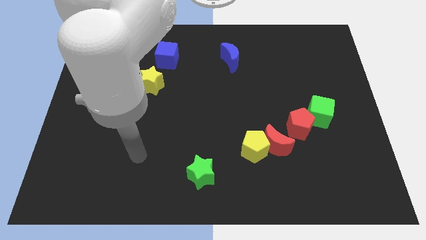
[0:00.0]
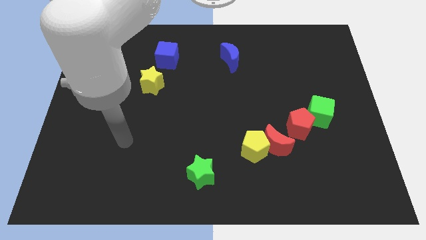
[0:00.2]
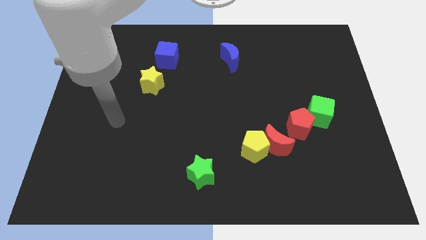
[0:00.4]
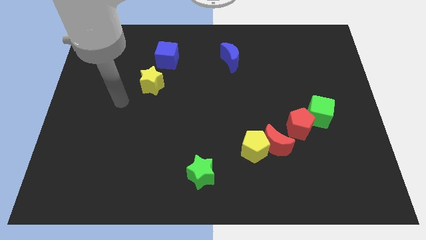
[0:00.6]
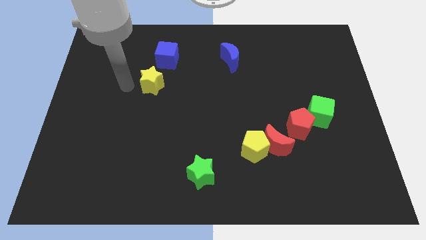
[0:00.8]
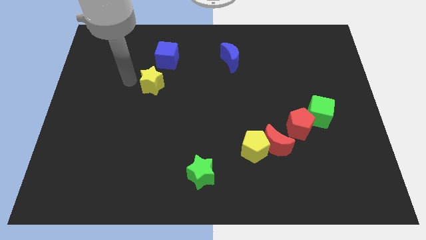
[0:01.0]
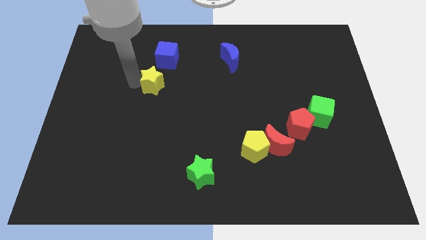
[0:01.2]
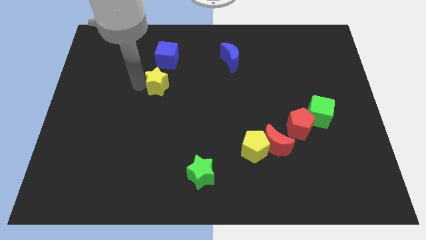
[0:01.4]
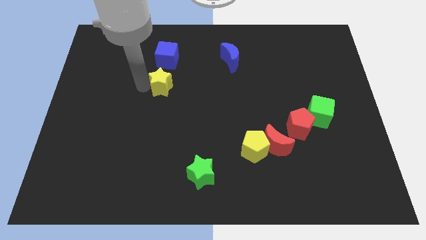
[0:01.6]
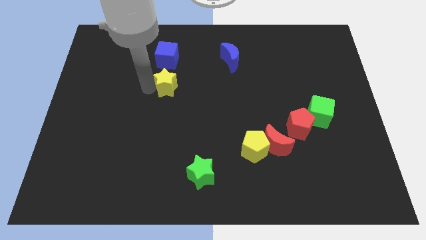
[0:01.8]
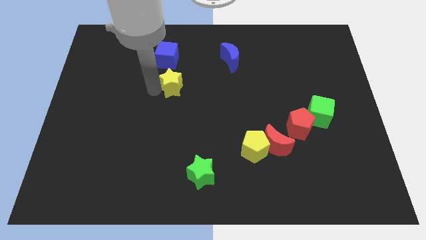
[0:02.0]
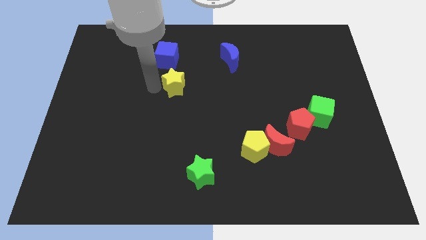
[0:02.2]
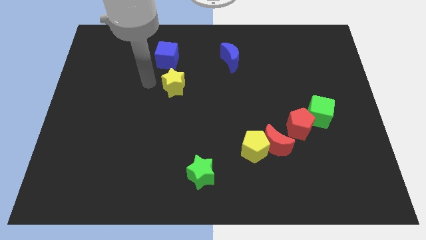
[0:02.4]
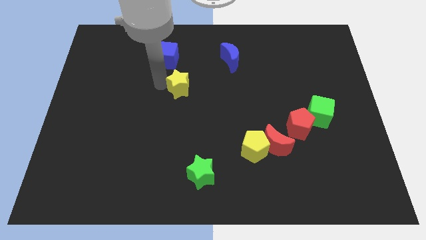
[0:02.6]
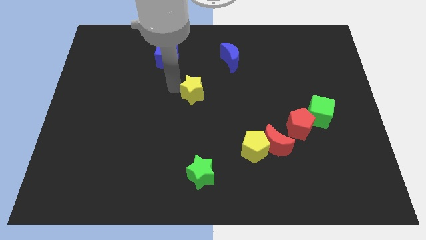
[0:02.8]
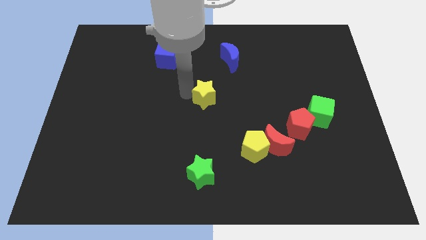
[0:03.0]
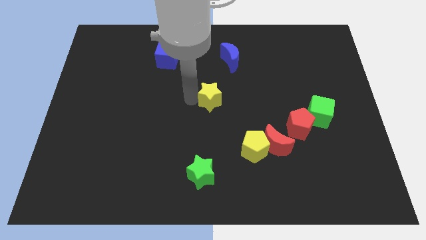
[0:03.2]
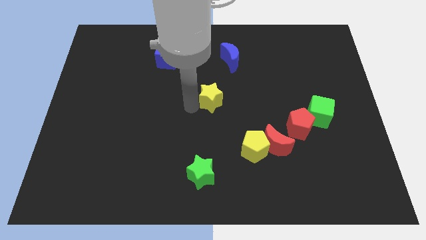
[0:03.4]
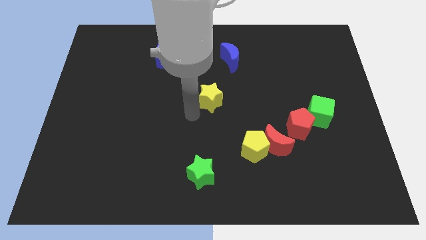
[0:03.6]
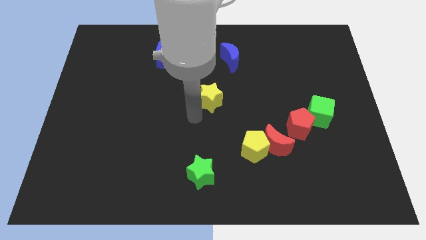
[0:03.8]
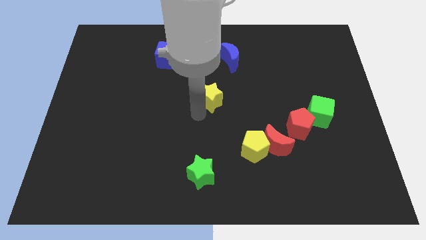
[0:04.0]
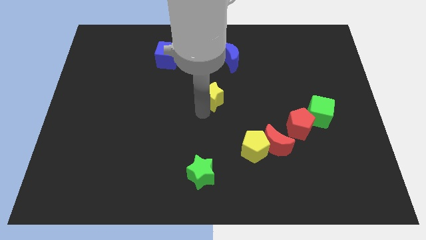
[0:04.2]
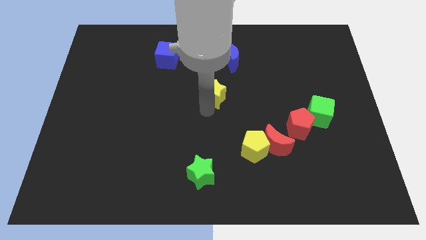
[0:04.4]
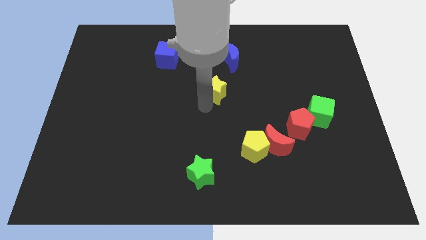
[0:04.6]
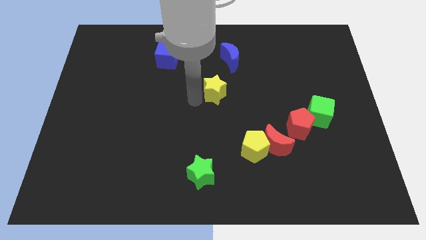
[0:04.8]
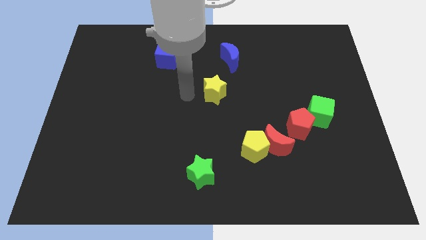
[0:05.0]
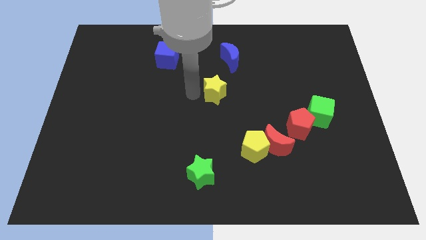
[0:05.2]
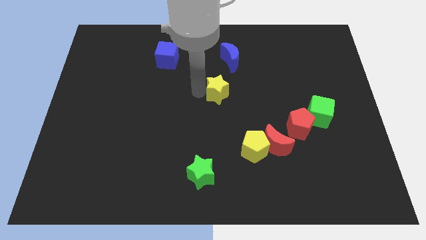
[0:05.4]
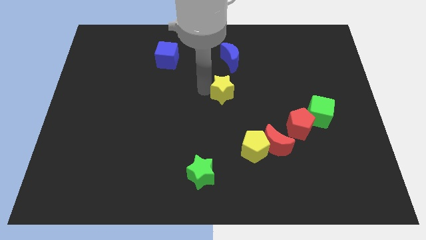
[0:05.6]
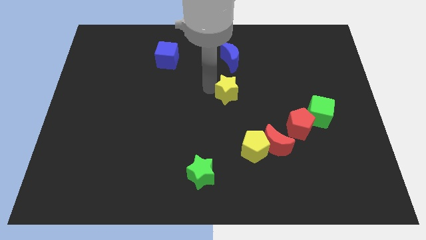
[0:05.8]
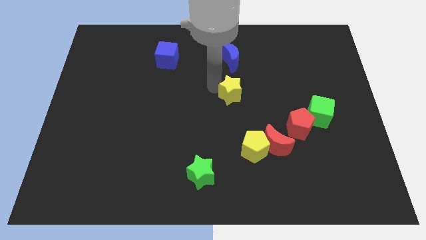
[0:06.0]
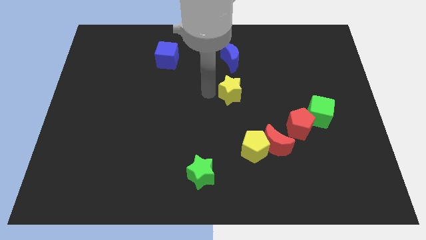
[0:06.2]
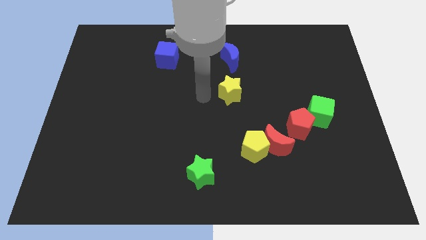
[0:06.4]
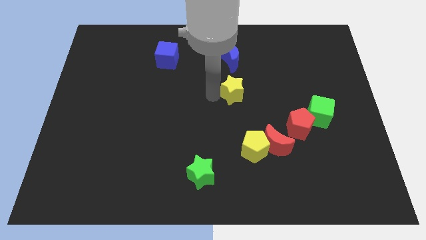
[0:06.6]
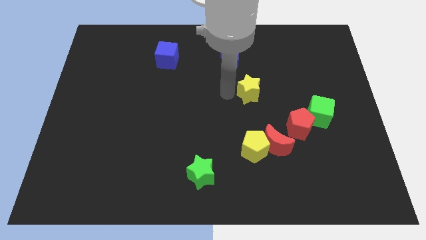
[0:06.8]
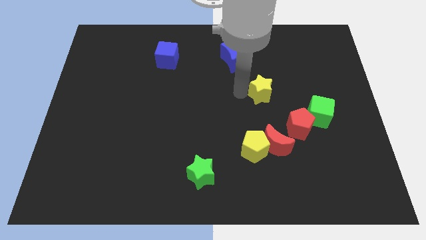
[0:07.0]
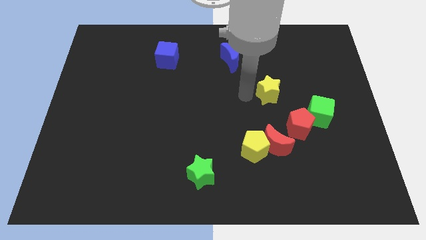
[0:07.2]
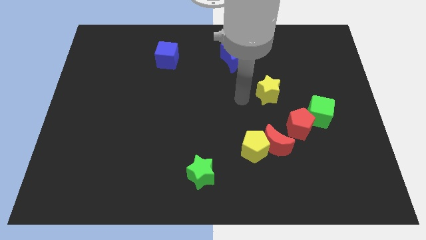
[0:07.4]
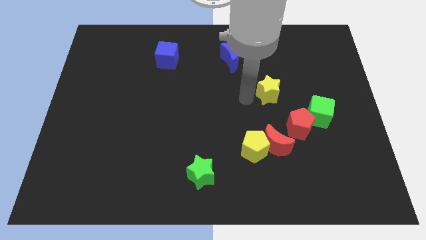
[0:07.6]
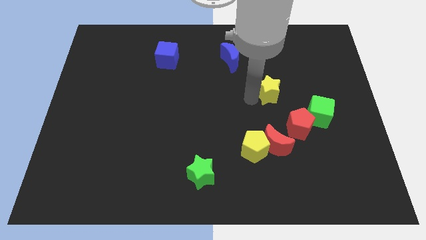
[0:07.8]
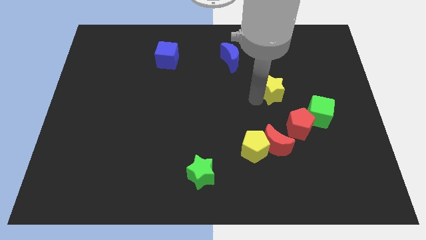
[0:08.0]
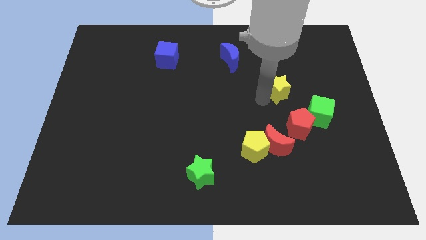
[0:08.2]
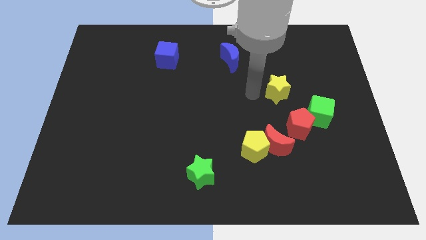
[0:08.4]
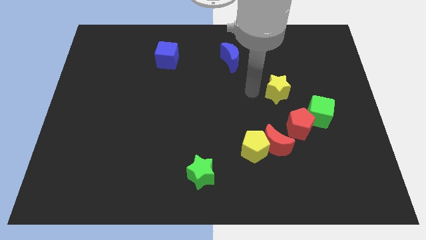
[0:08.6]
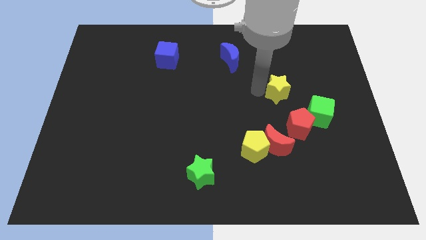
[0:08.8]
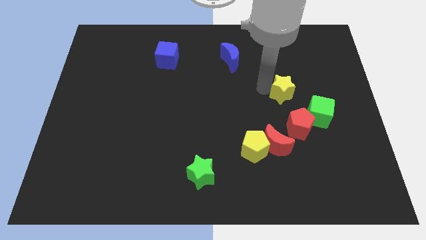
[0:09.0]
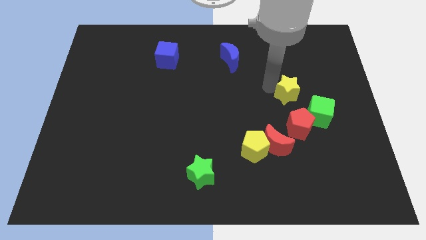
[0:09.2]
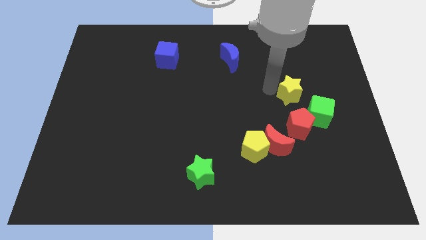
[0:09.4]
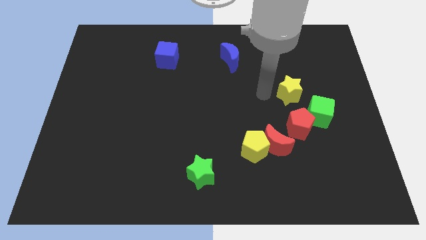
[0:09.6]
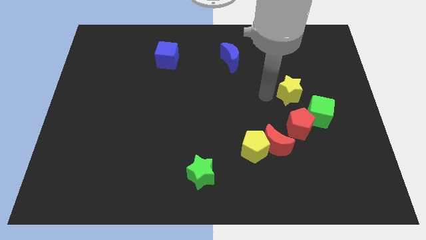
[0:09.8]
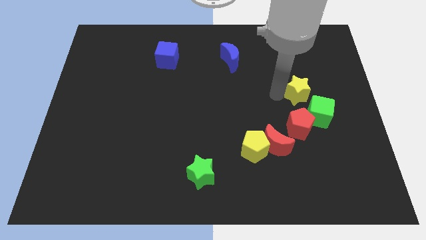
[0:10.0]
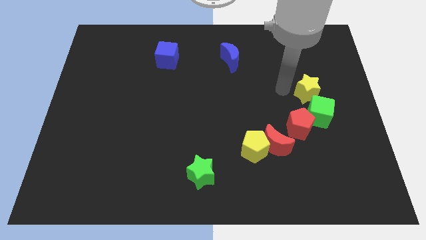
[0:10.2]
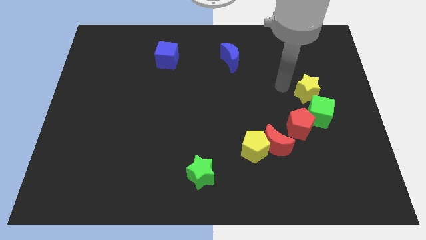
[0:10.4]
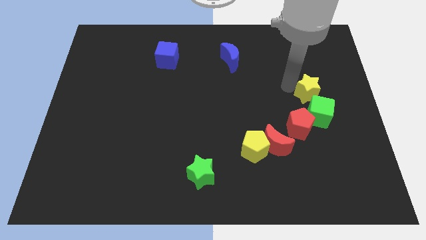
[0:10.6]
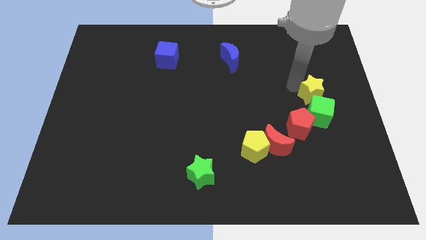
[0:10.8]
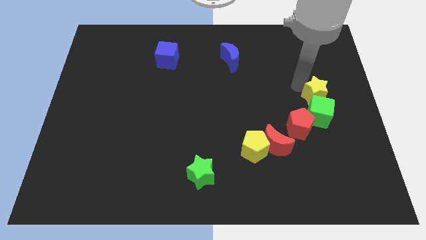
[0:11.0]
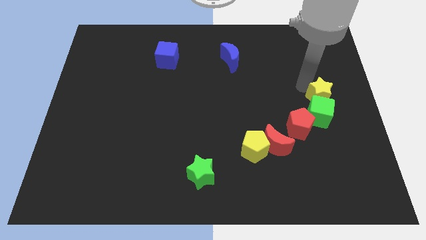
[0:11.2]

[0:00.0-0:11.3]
put the yellow star to the right side of the board

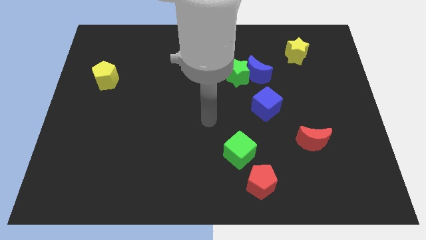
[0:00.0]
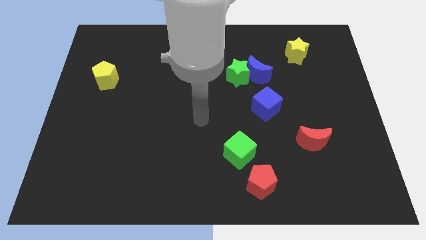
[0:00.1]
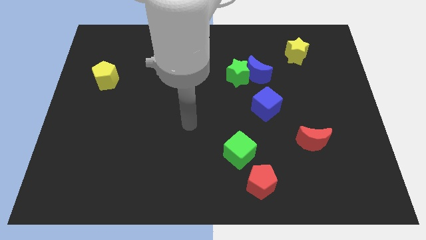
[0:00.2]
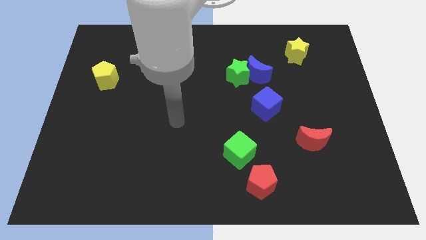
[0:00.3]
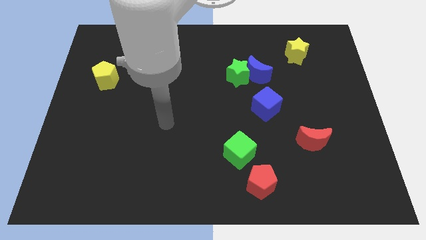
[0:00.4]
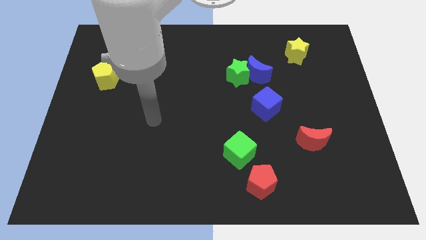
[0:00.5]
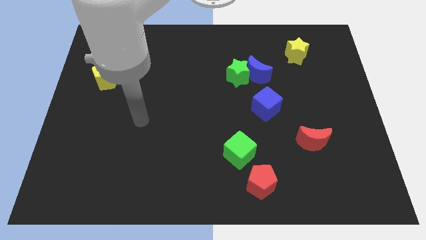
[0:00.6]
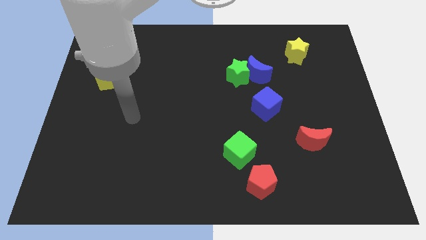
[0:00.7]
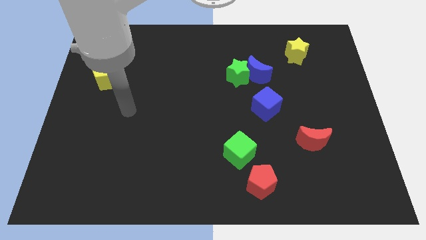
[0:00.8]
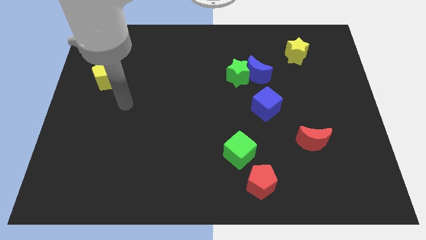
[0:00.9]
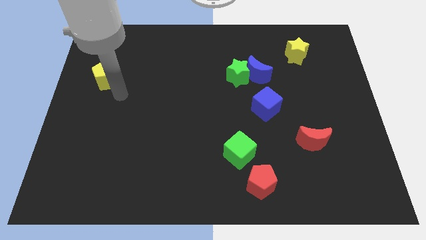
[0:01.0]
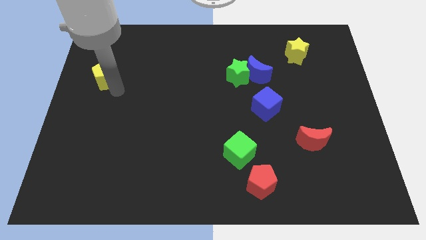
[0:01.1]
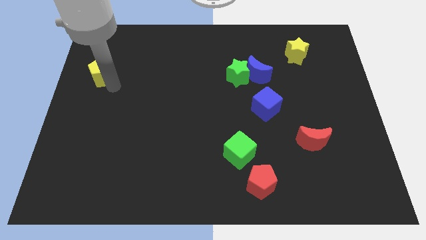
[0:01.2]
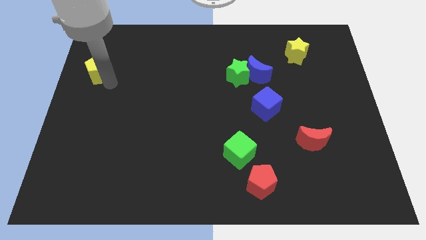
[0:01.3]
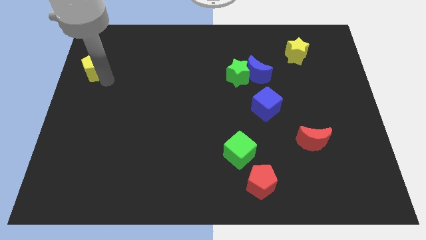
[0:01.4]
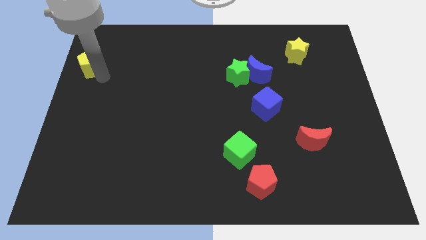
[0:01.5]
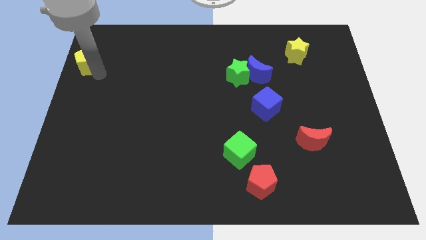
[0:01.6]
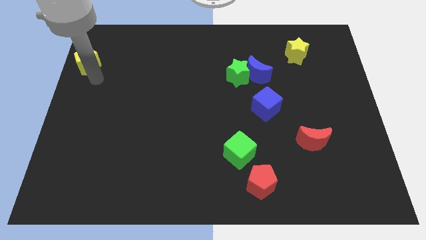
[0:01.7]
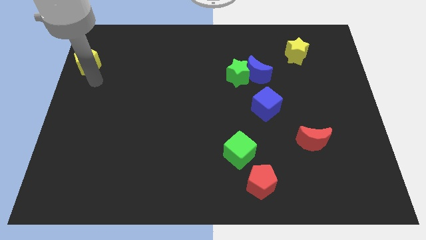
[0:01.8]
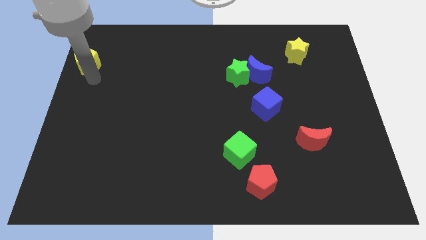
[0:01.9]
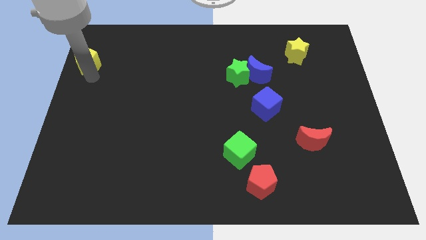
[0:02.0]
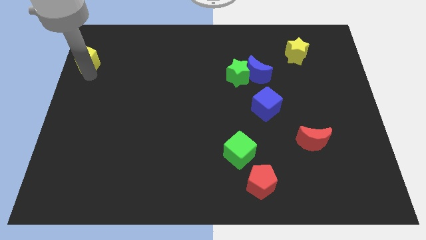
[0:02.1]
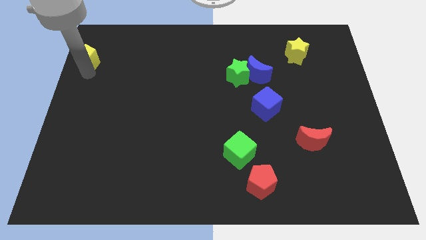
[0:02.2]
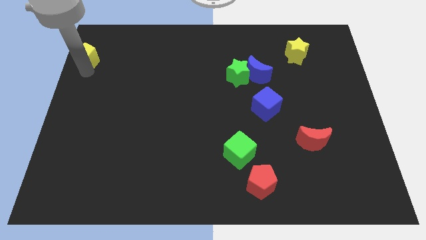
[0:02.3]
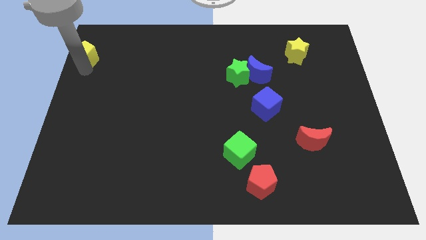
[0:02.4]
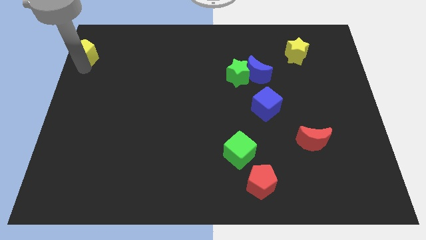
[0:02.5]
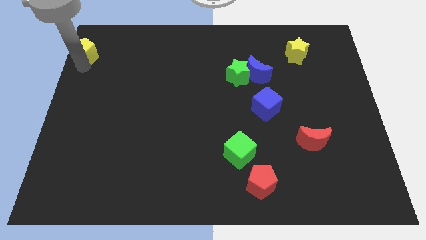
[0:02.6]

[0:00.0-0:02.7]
put the yellow pentagon to the top left corner
